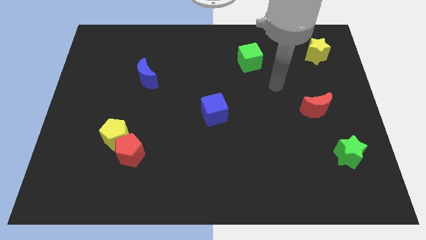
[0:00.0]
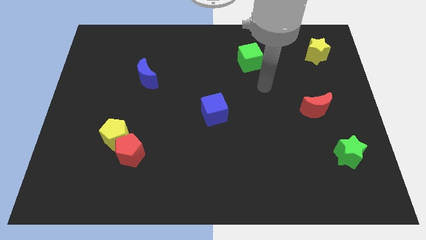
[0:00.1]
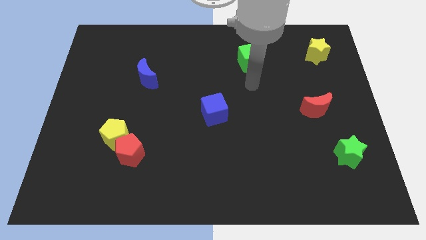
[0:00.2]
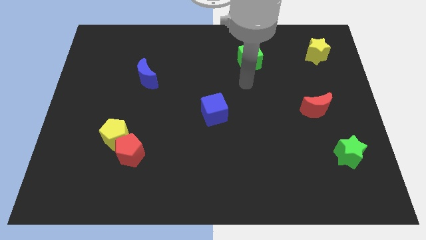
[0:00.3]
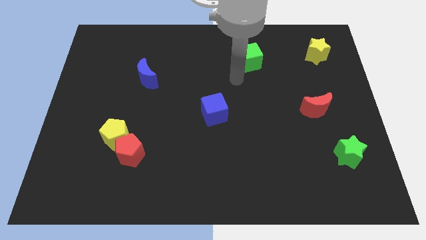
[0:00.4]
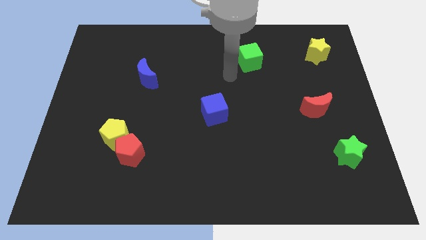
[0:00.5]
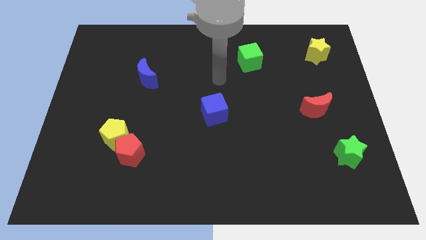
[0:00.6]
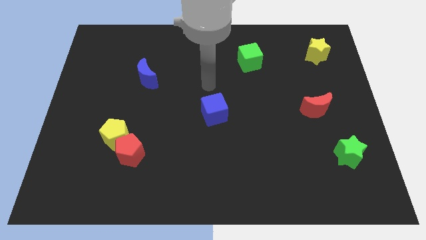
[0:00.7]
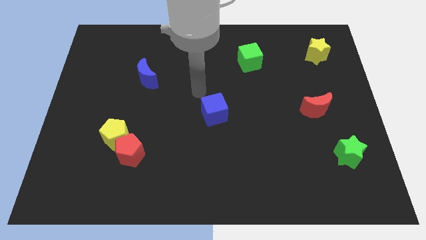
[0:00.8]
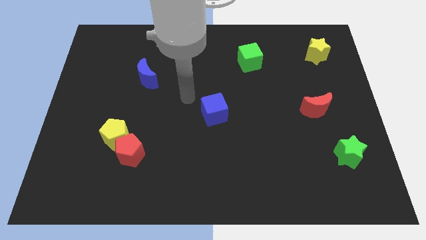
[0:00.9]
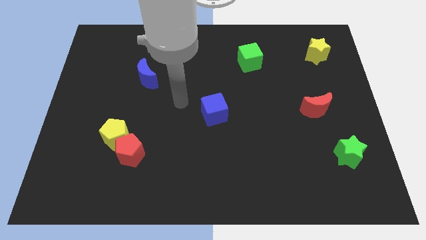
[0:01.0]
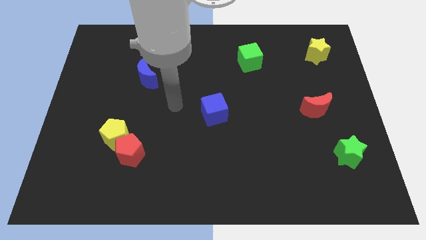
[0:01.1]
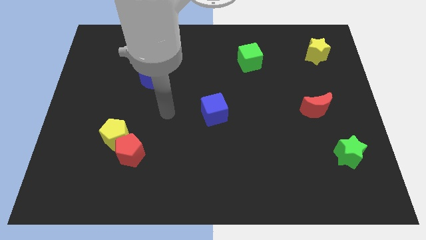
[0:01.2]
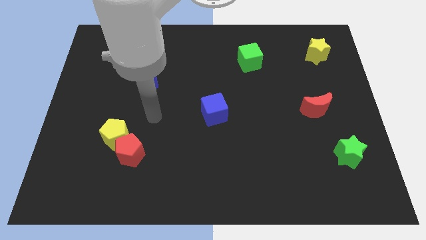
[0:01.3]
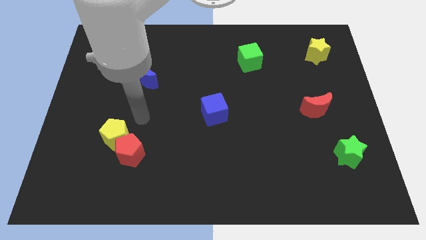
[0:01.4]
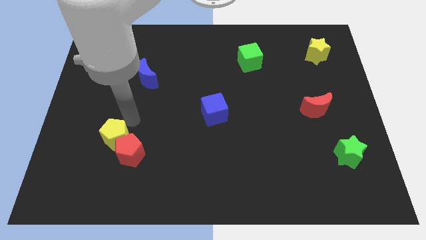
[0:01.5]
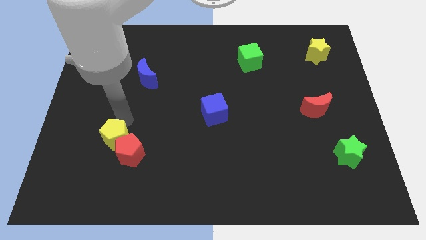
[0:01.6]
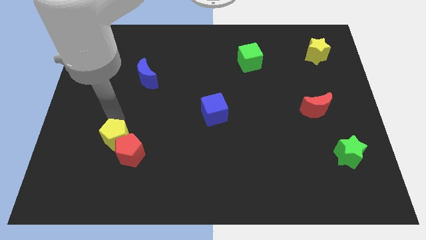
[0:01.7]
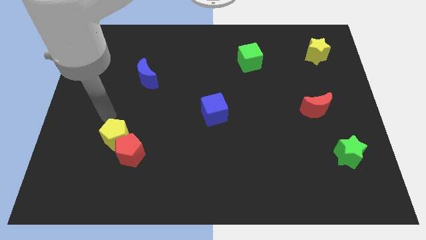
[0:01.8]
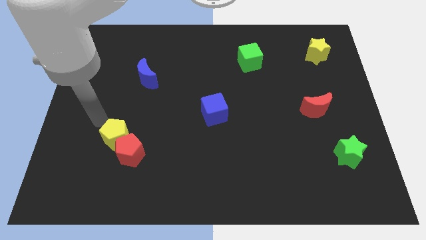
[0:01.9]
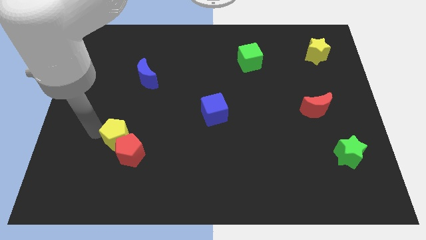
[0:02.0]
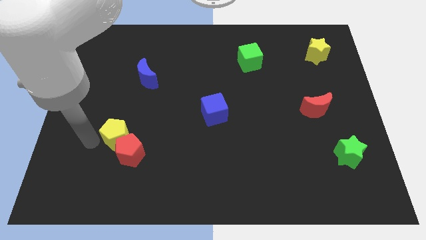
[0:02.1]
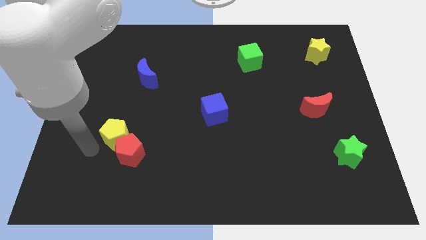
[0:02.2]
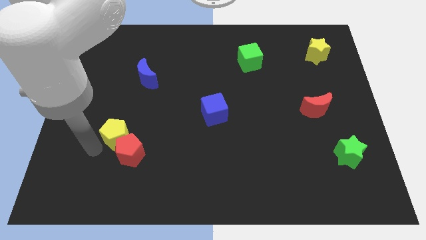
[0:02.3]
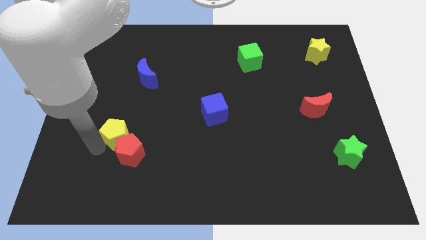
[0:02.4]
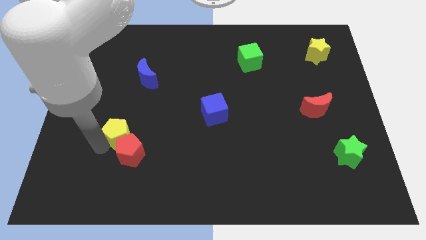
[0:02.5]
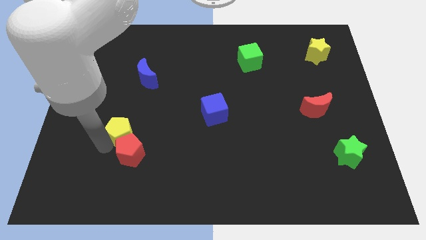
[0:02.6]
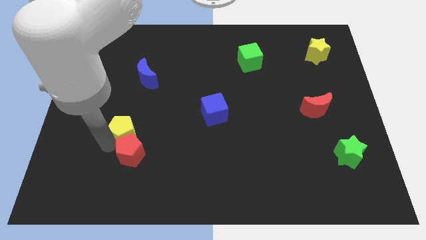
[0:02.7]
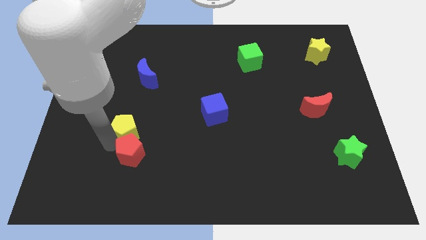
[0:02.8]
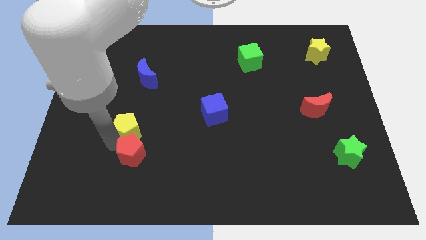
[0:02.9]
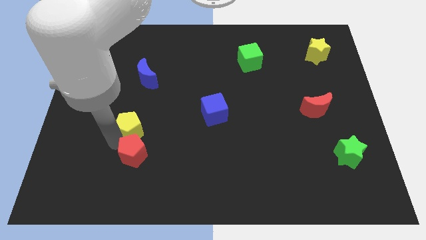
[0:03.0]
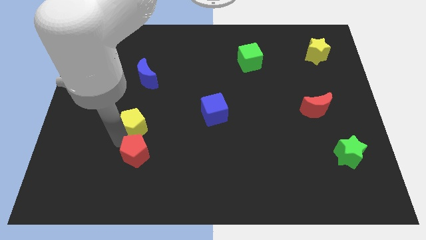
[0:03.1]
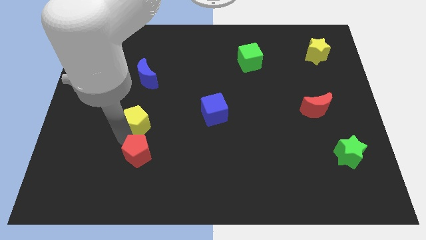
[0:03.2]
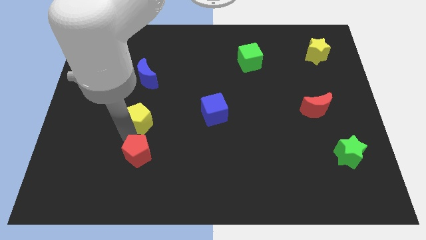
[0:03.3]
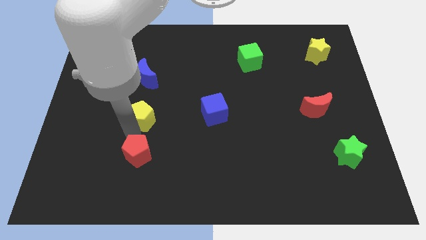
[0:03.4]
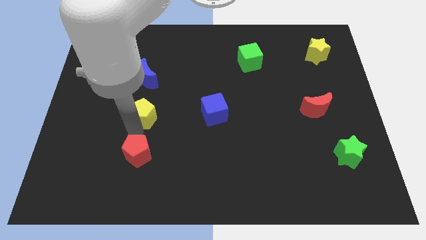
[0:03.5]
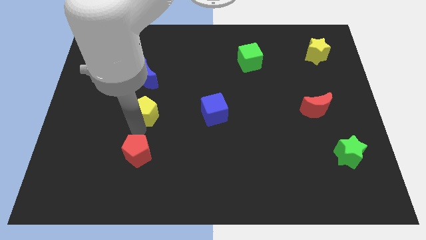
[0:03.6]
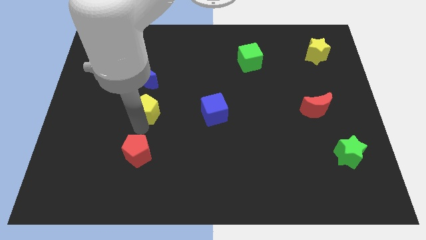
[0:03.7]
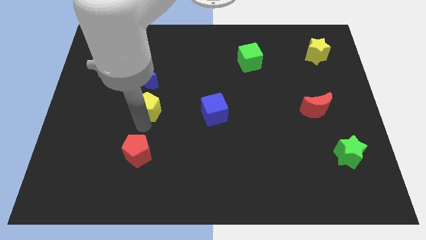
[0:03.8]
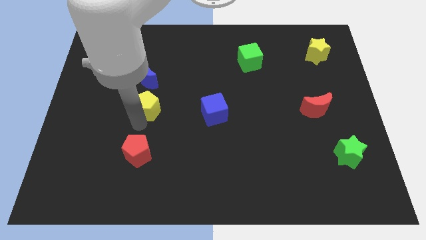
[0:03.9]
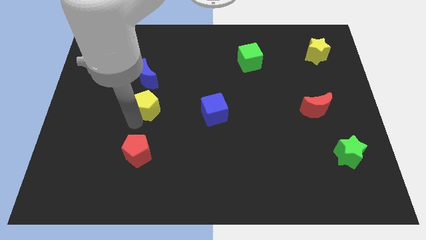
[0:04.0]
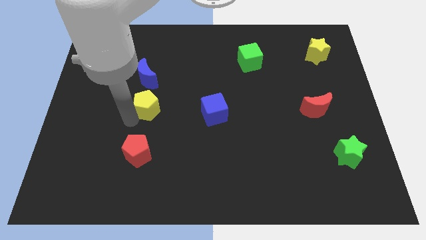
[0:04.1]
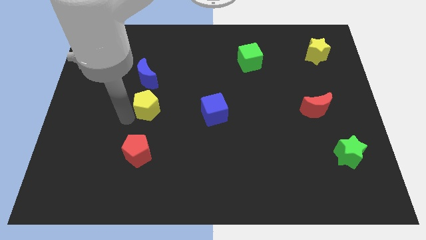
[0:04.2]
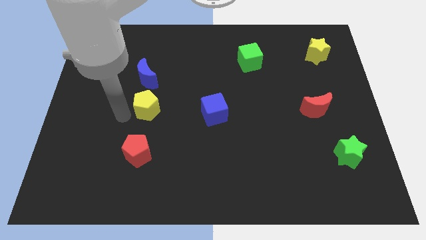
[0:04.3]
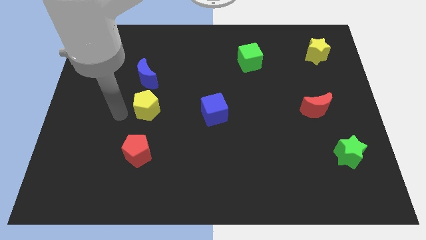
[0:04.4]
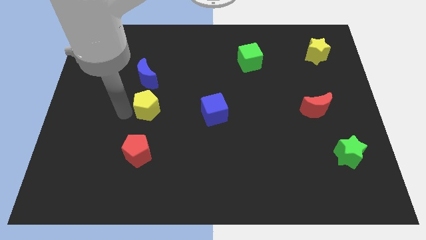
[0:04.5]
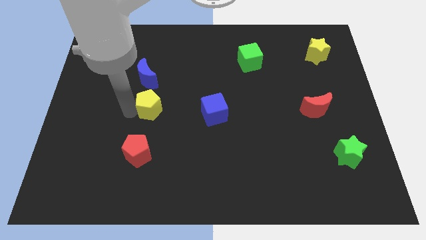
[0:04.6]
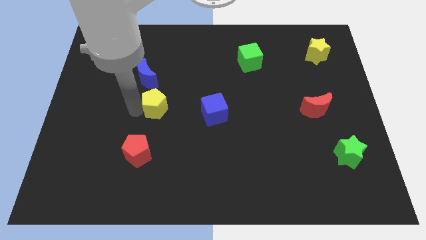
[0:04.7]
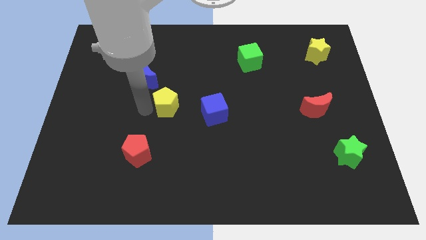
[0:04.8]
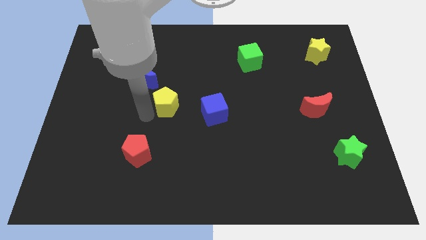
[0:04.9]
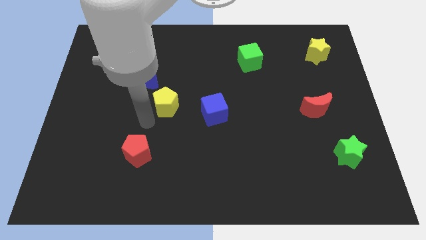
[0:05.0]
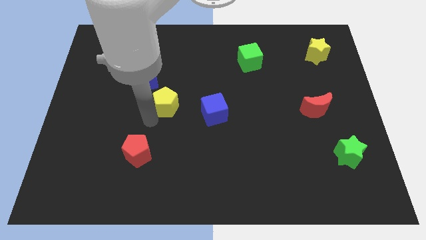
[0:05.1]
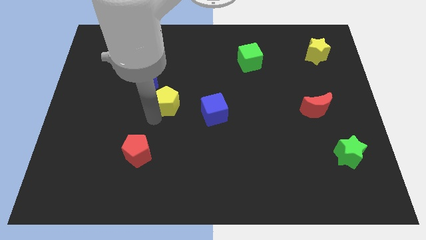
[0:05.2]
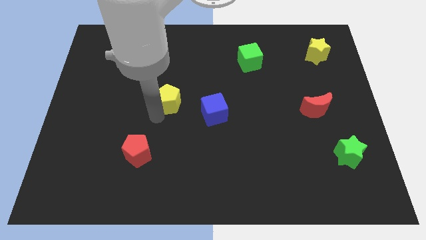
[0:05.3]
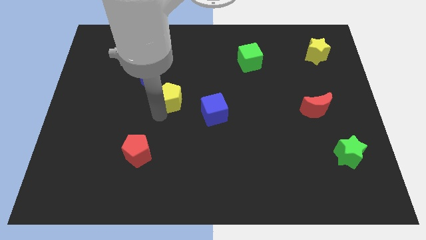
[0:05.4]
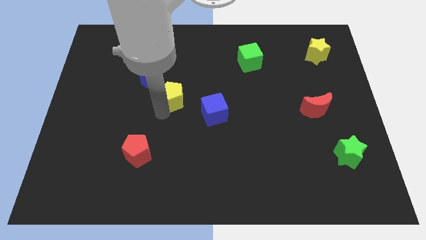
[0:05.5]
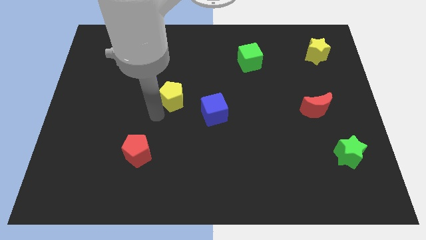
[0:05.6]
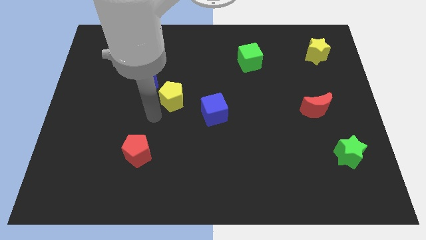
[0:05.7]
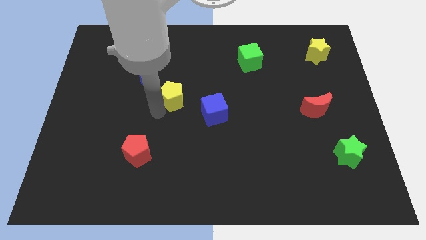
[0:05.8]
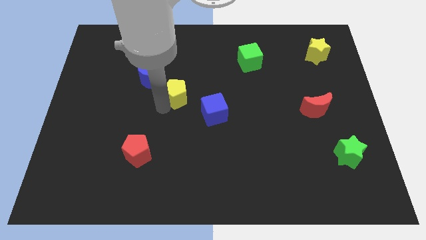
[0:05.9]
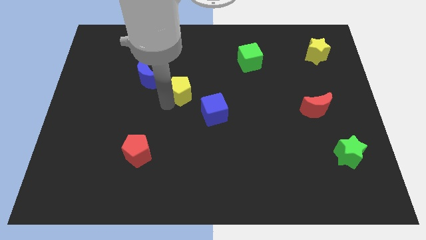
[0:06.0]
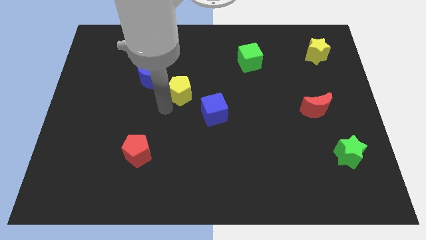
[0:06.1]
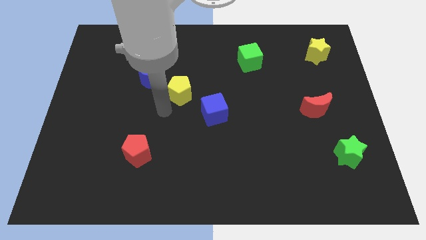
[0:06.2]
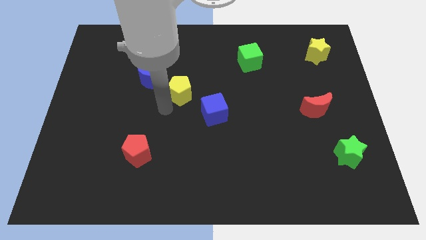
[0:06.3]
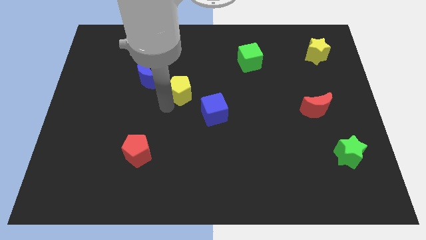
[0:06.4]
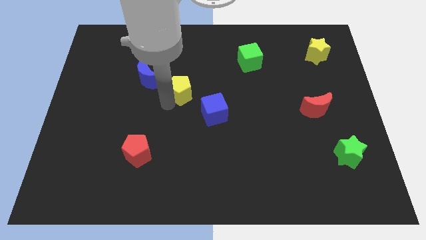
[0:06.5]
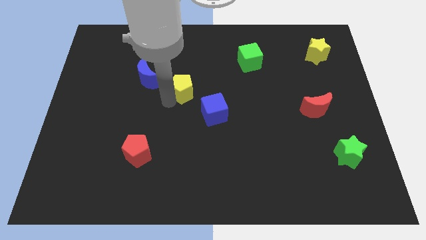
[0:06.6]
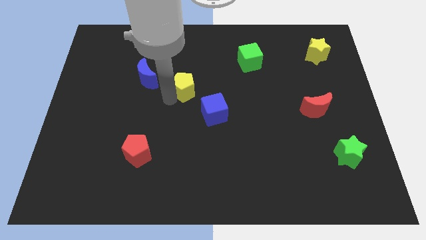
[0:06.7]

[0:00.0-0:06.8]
move the yellow pentagon diagonally up and right

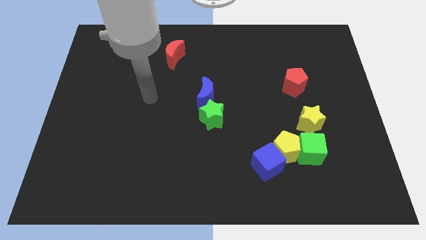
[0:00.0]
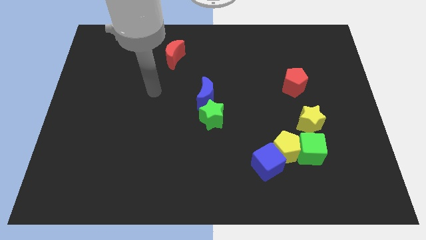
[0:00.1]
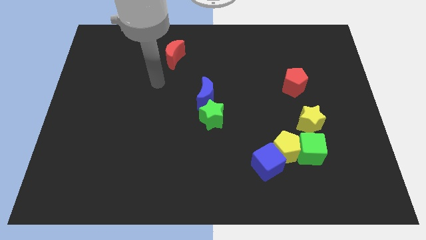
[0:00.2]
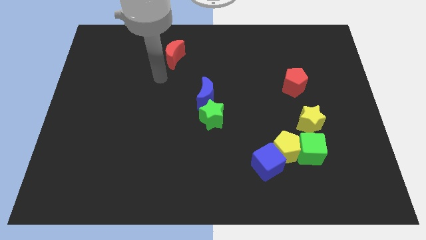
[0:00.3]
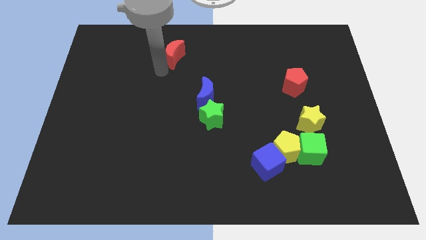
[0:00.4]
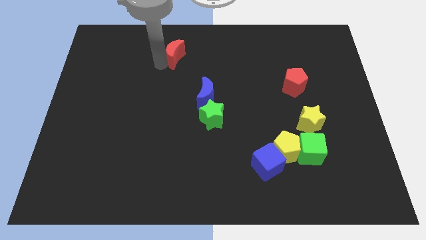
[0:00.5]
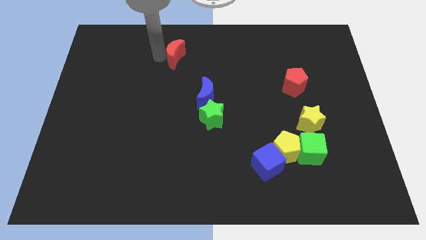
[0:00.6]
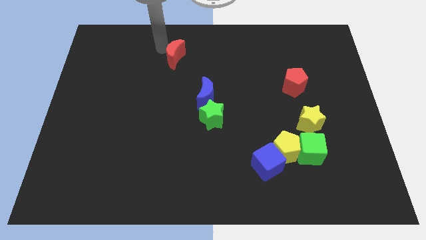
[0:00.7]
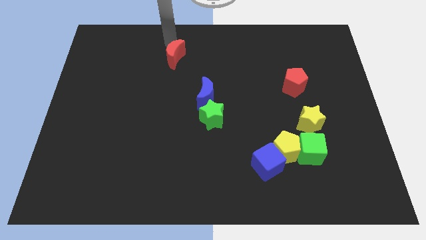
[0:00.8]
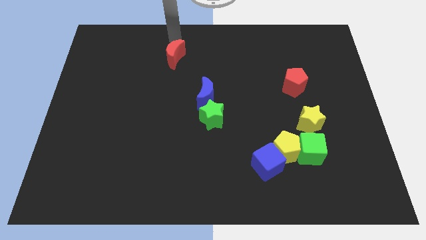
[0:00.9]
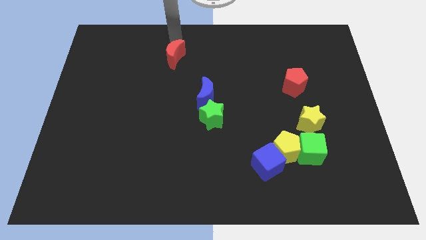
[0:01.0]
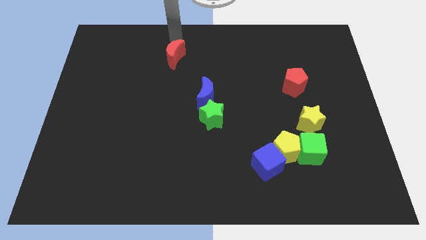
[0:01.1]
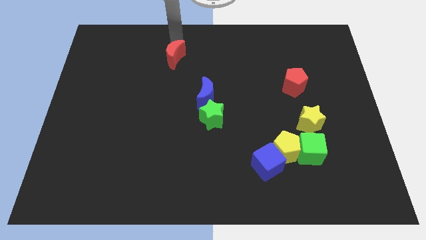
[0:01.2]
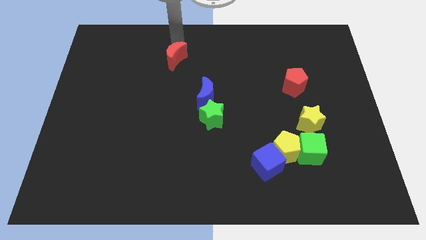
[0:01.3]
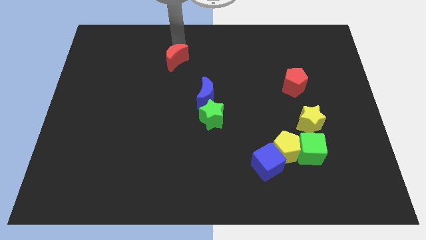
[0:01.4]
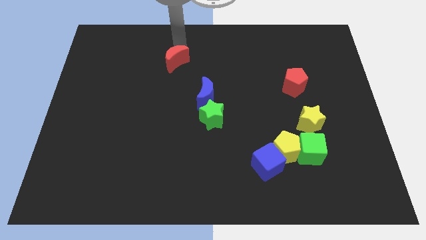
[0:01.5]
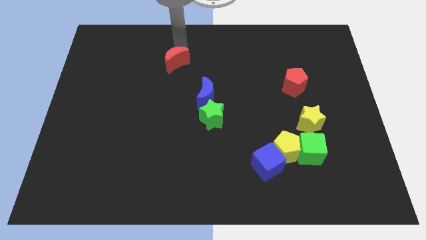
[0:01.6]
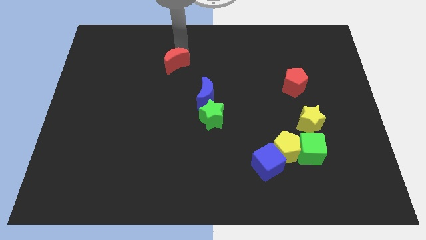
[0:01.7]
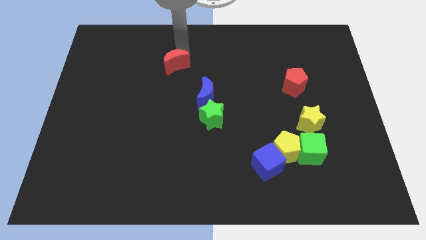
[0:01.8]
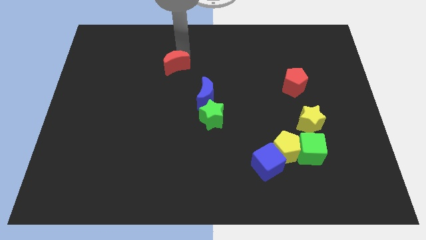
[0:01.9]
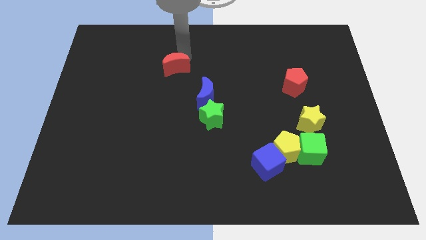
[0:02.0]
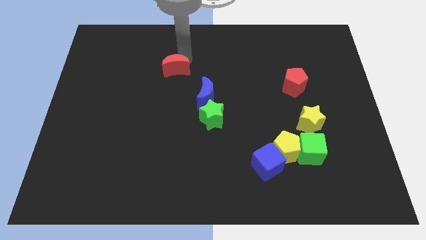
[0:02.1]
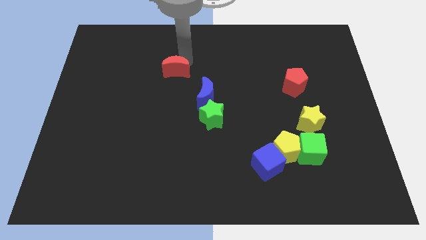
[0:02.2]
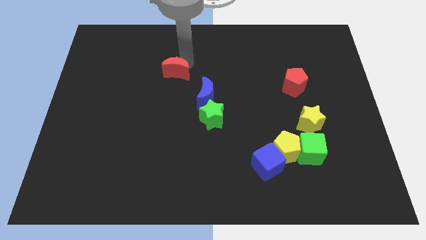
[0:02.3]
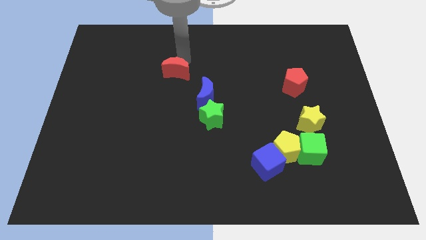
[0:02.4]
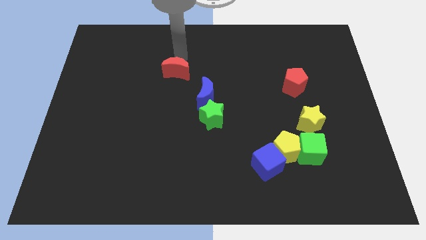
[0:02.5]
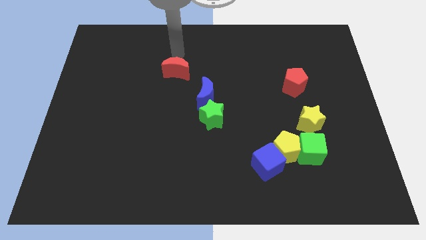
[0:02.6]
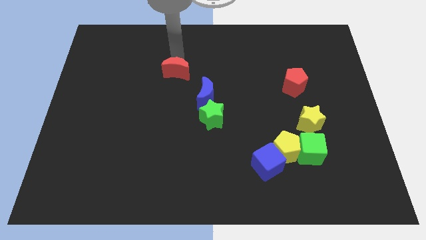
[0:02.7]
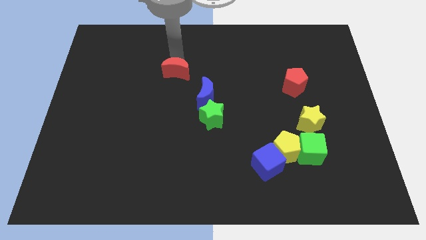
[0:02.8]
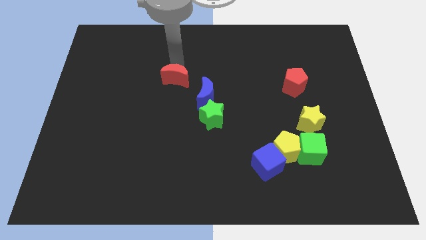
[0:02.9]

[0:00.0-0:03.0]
move the red moon down a bit
